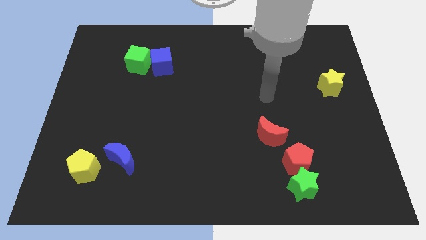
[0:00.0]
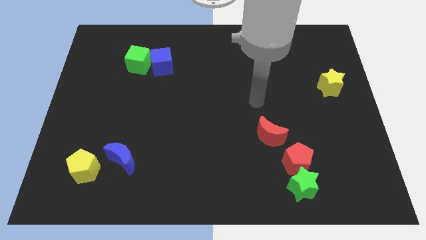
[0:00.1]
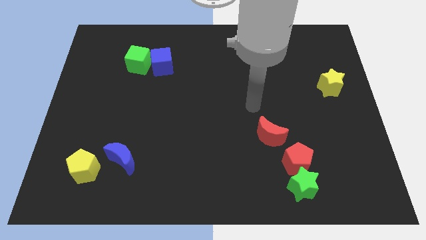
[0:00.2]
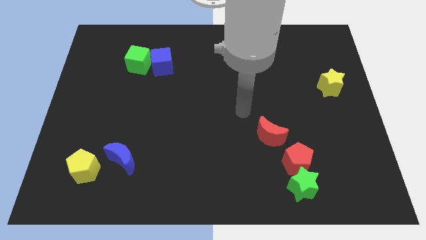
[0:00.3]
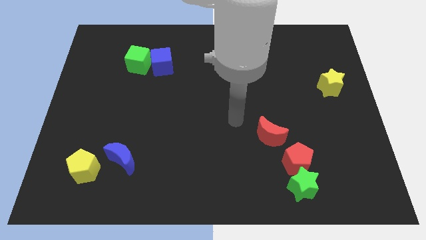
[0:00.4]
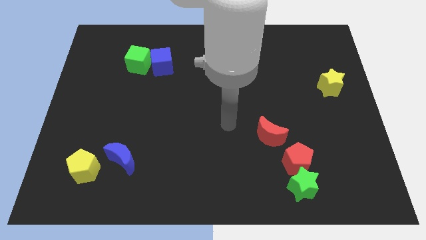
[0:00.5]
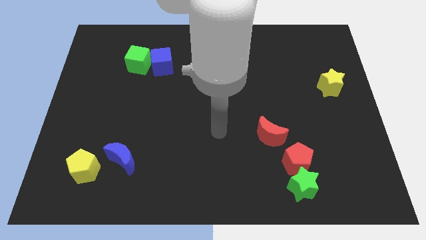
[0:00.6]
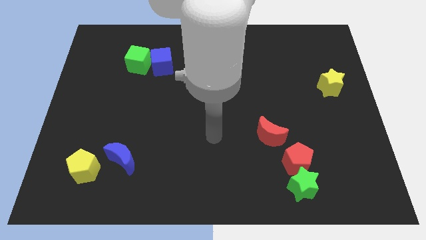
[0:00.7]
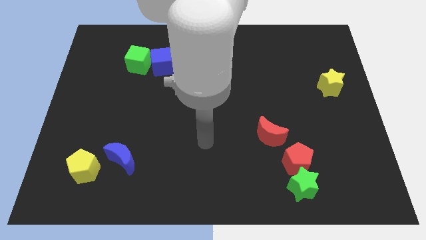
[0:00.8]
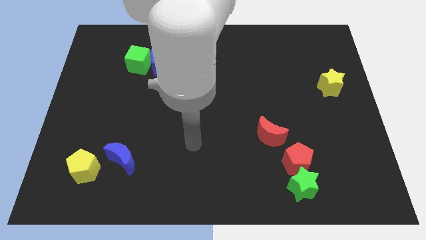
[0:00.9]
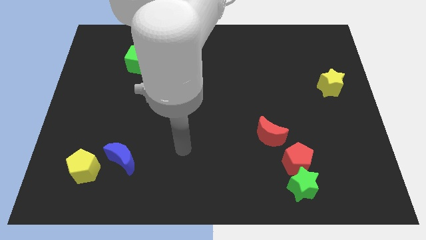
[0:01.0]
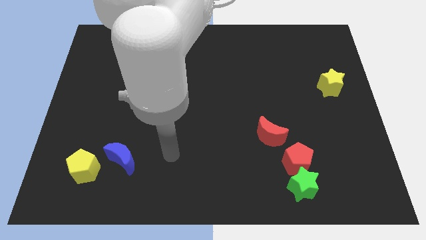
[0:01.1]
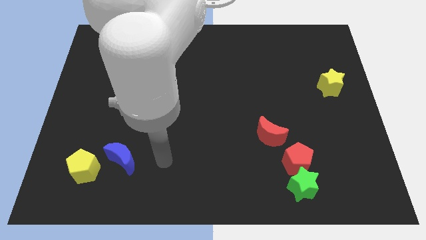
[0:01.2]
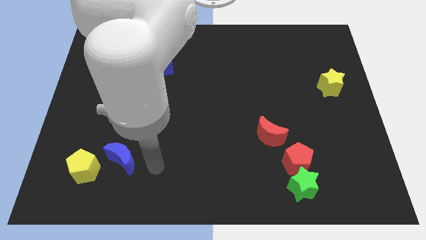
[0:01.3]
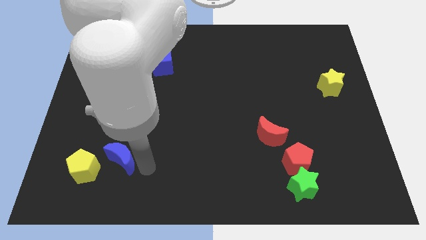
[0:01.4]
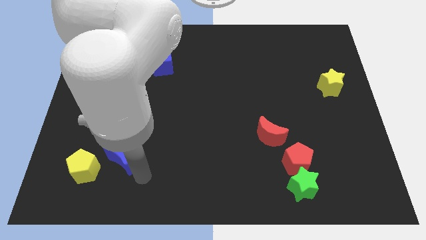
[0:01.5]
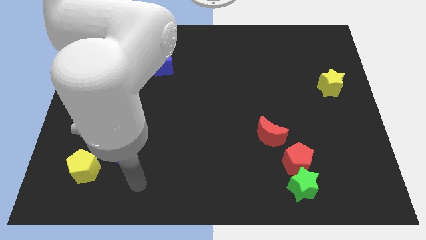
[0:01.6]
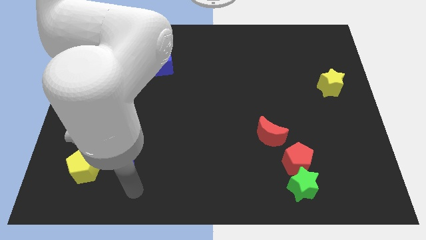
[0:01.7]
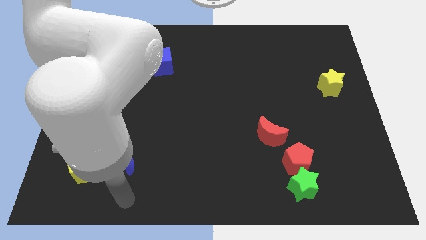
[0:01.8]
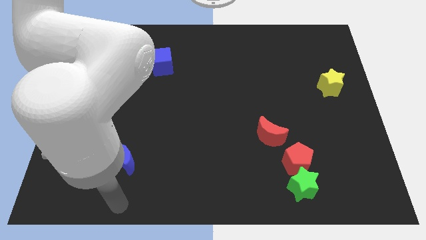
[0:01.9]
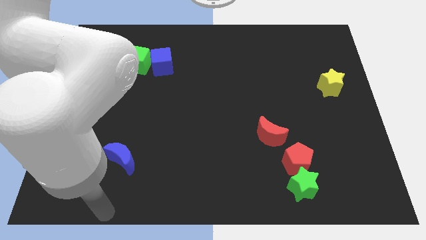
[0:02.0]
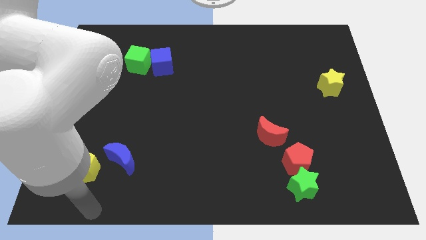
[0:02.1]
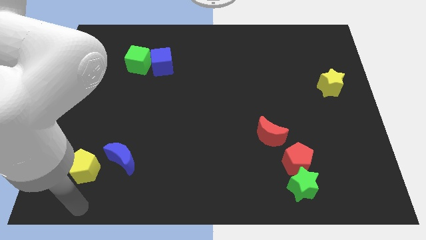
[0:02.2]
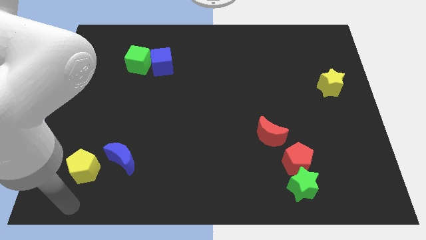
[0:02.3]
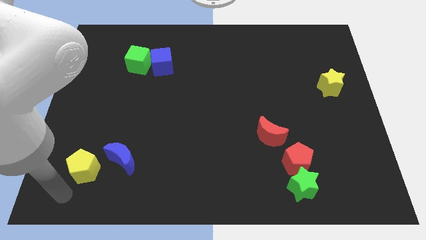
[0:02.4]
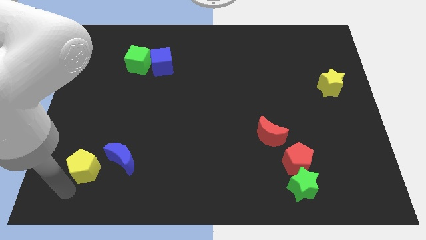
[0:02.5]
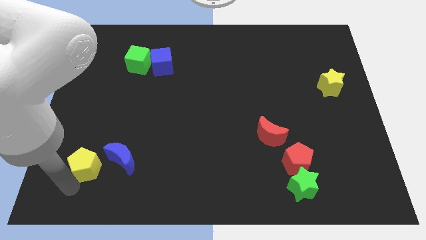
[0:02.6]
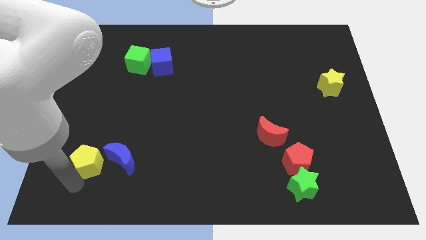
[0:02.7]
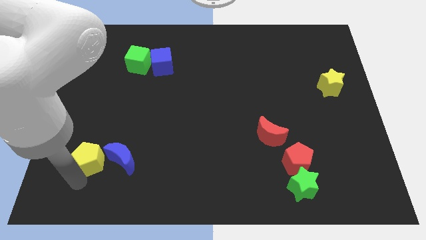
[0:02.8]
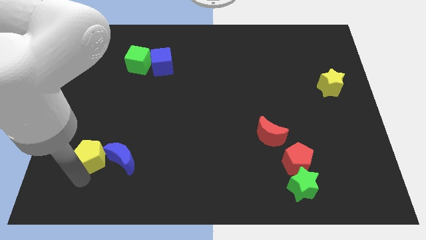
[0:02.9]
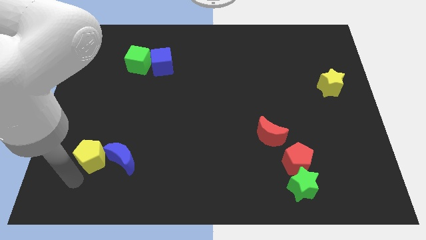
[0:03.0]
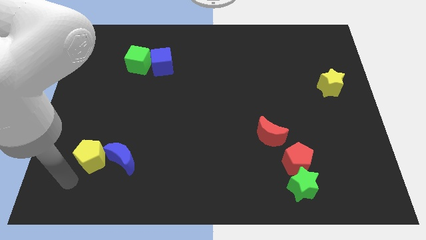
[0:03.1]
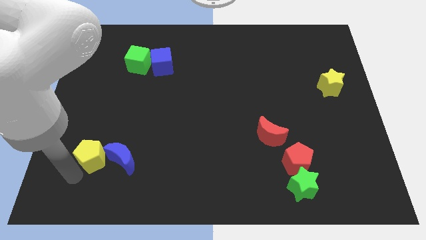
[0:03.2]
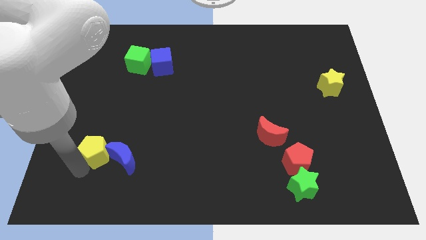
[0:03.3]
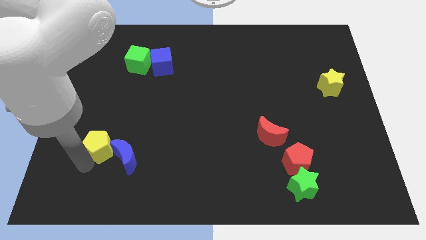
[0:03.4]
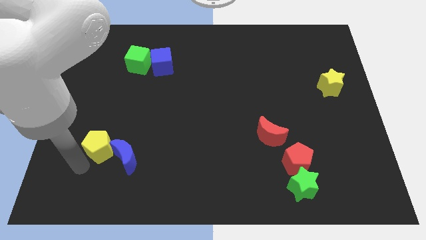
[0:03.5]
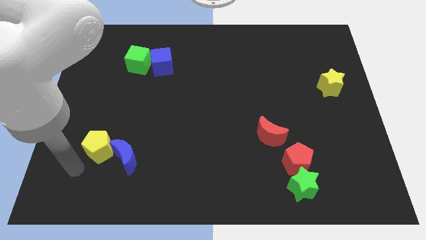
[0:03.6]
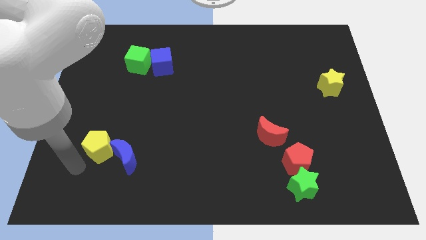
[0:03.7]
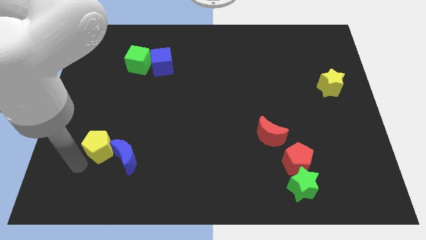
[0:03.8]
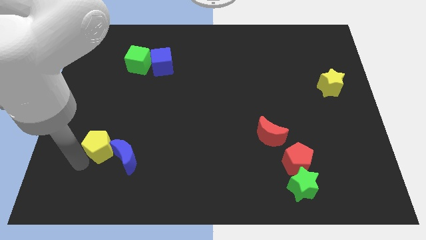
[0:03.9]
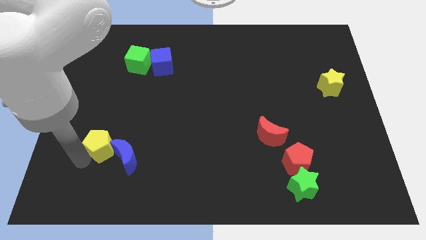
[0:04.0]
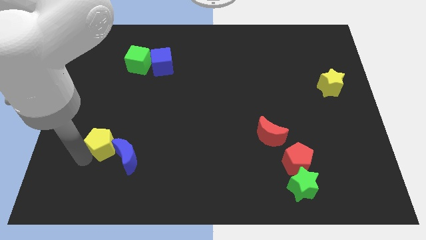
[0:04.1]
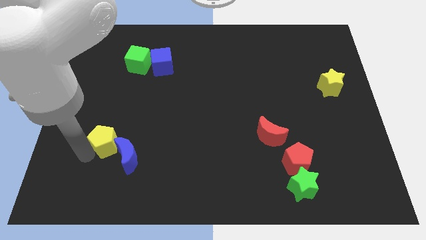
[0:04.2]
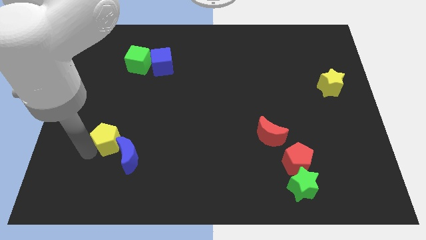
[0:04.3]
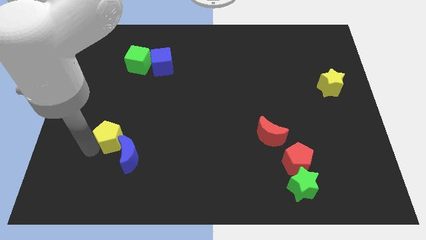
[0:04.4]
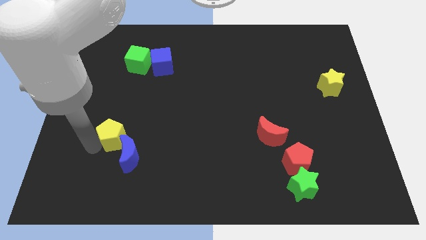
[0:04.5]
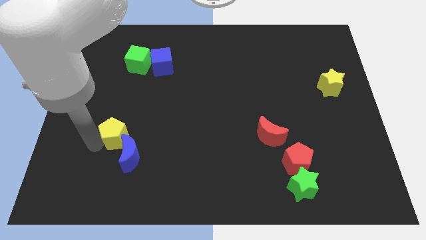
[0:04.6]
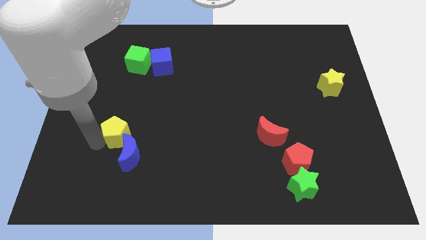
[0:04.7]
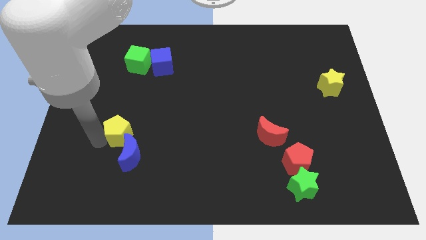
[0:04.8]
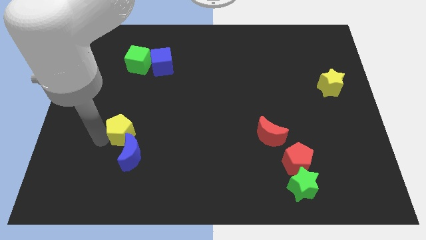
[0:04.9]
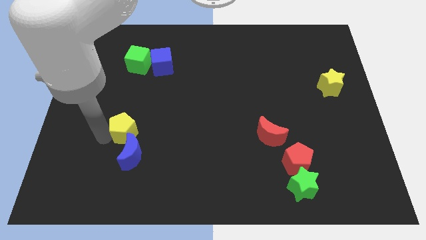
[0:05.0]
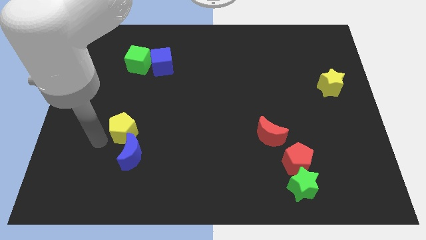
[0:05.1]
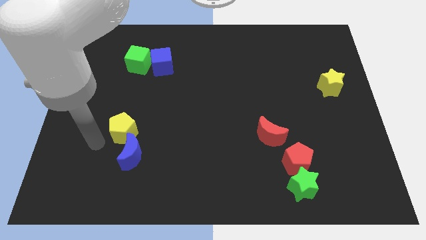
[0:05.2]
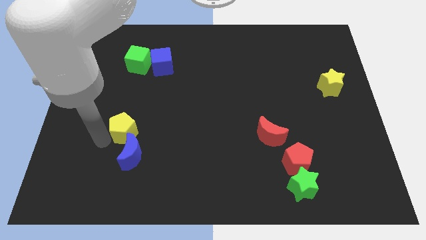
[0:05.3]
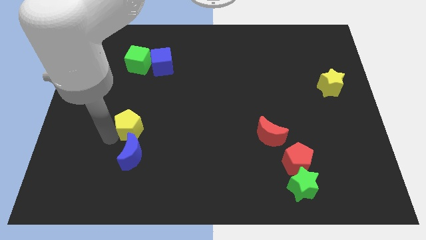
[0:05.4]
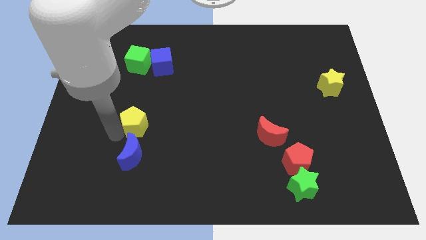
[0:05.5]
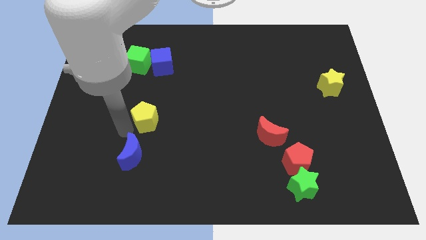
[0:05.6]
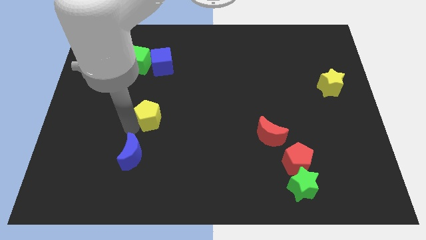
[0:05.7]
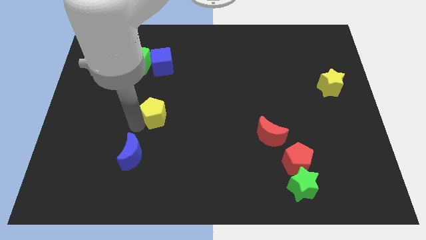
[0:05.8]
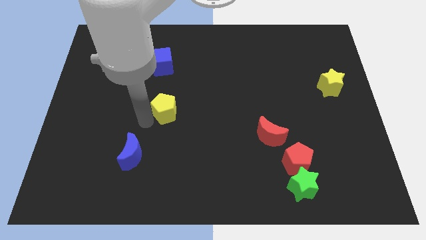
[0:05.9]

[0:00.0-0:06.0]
push the yellow pentagon diagonally up and to the right

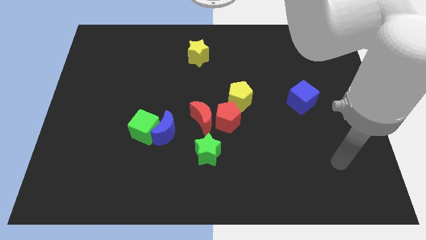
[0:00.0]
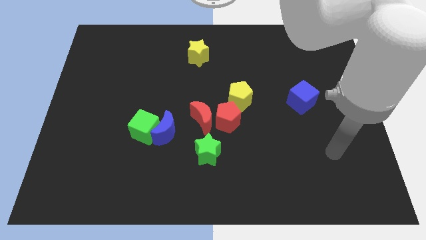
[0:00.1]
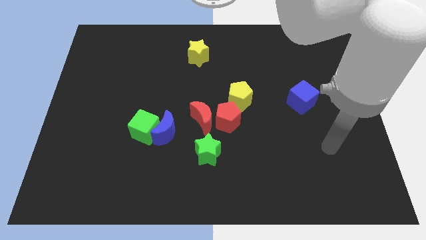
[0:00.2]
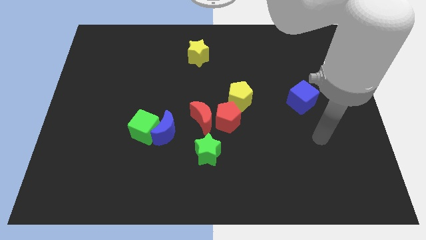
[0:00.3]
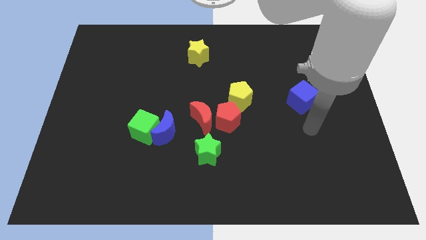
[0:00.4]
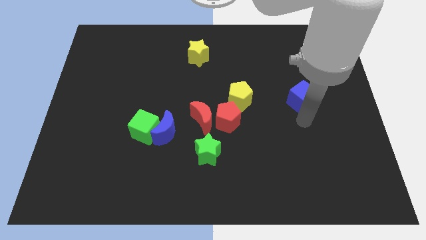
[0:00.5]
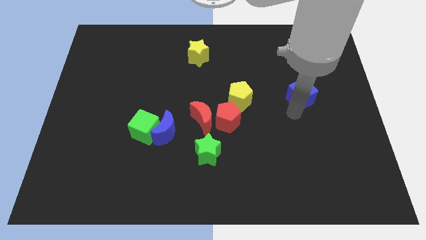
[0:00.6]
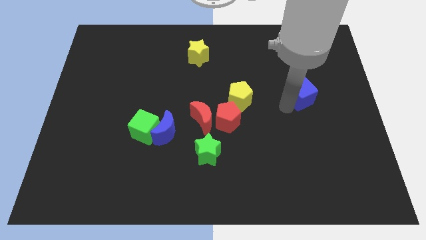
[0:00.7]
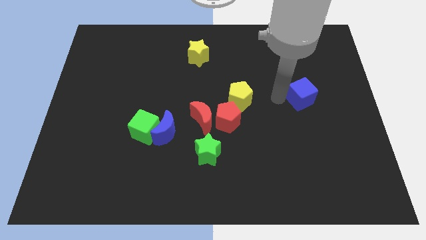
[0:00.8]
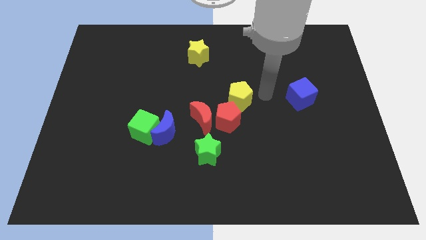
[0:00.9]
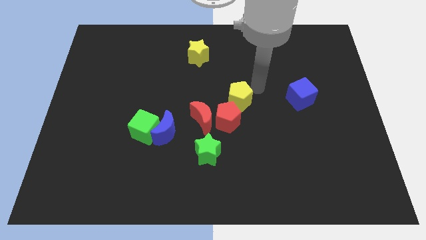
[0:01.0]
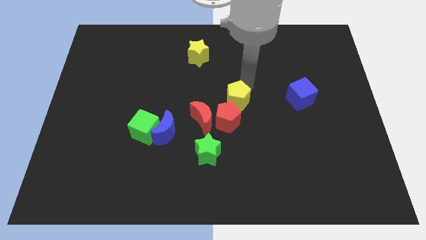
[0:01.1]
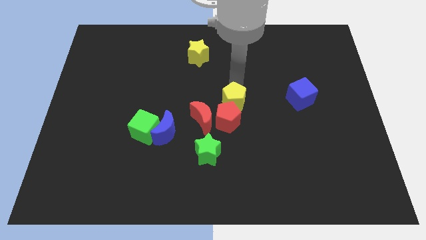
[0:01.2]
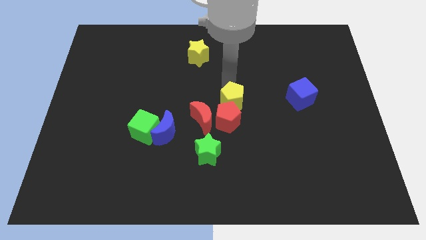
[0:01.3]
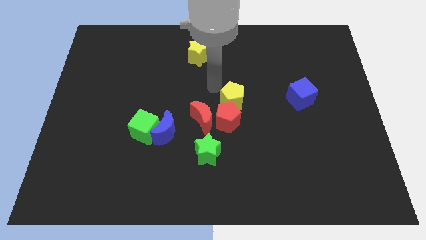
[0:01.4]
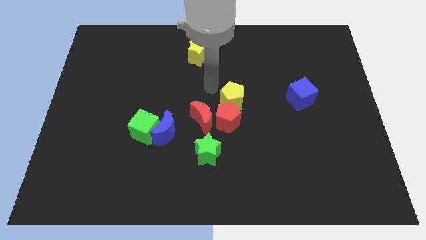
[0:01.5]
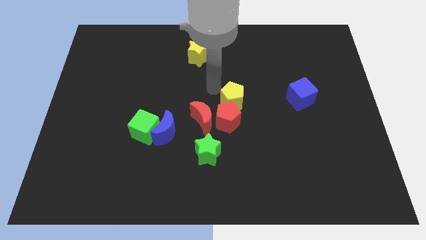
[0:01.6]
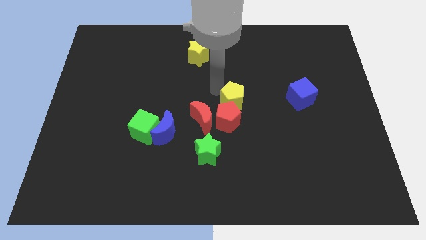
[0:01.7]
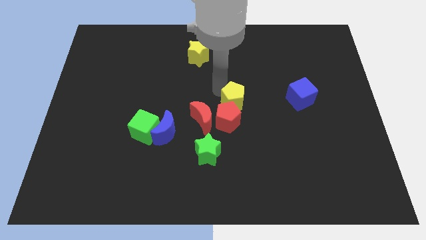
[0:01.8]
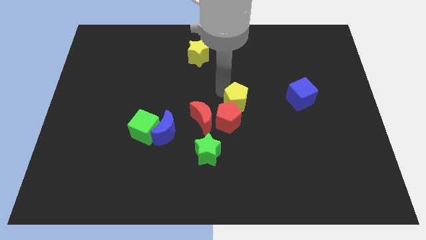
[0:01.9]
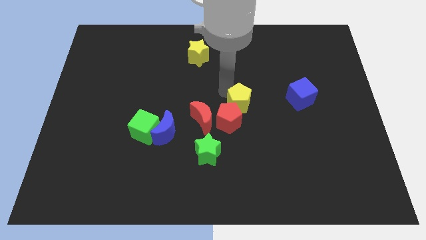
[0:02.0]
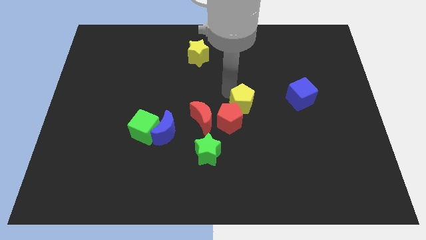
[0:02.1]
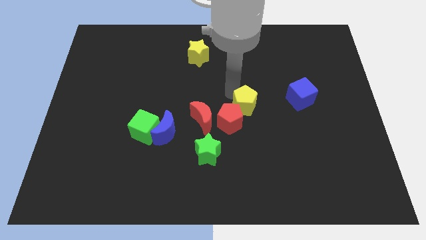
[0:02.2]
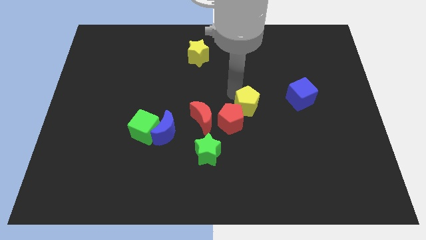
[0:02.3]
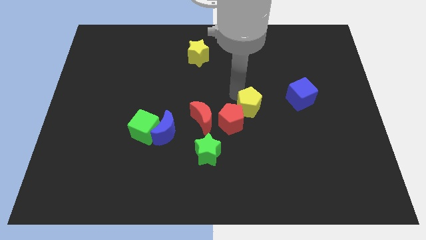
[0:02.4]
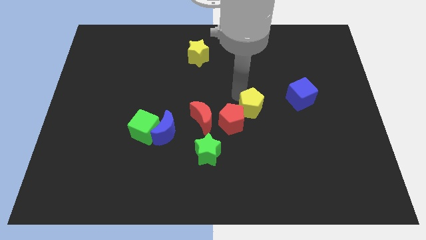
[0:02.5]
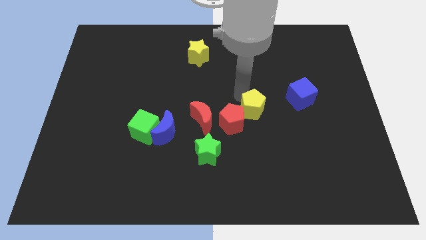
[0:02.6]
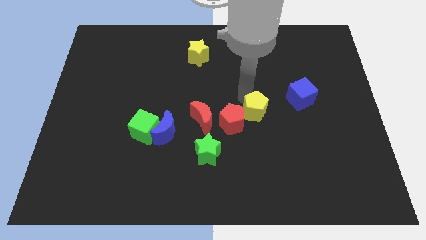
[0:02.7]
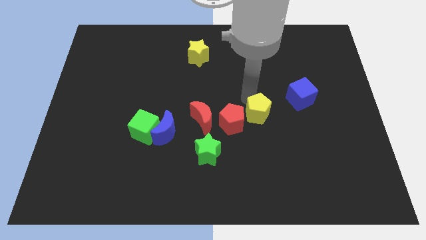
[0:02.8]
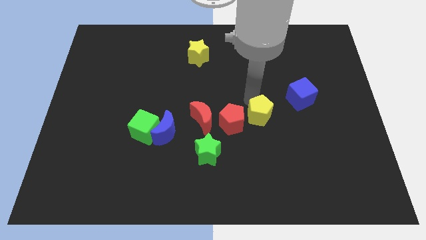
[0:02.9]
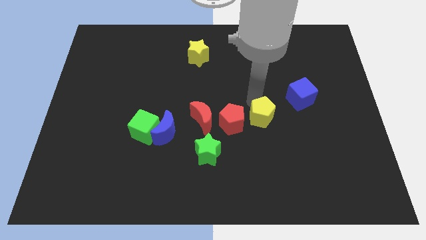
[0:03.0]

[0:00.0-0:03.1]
slide the yellow pentagon slightly down and then to the right
